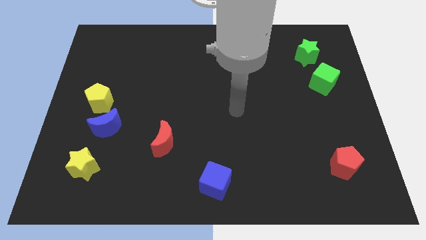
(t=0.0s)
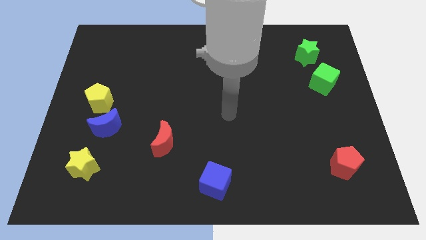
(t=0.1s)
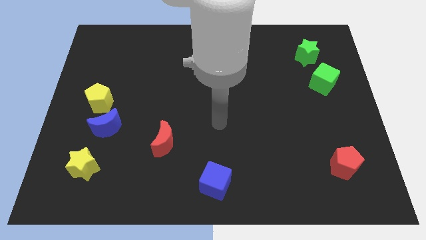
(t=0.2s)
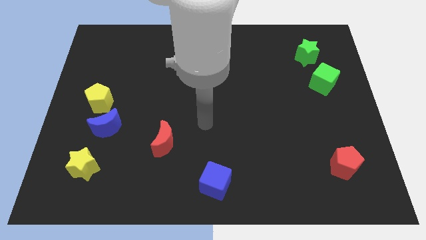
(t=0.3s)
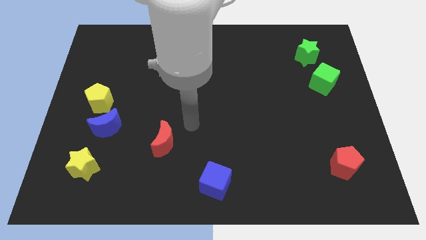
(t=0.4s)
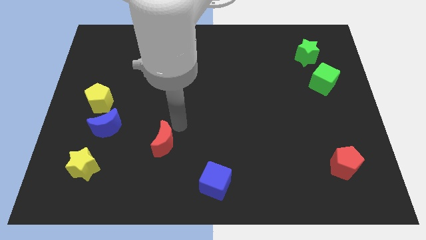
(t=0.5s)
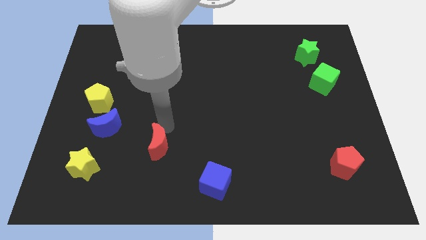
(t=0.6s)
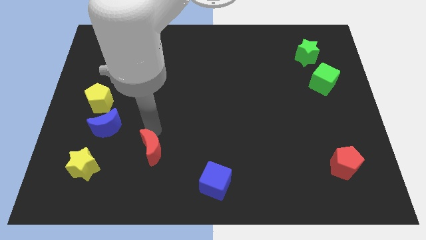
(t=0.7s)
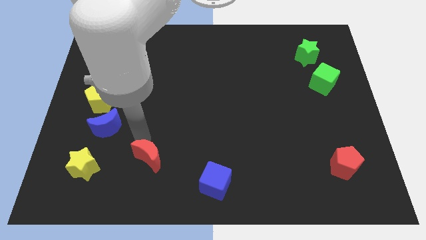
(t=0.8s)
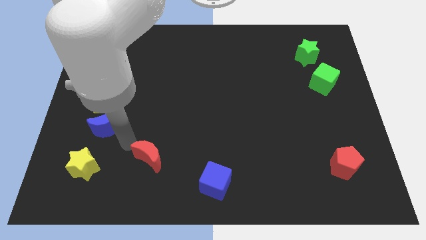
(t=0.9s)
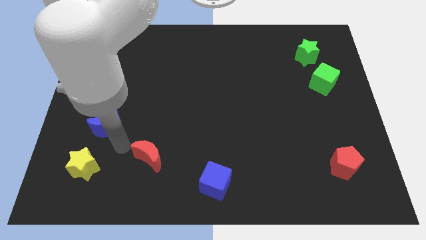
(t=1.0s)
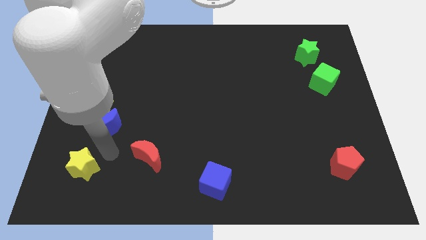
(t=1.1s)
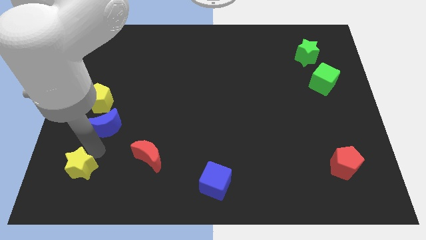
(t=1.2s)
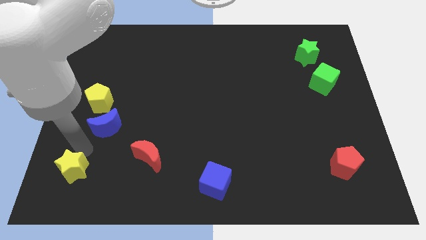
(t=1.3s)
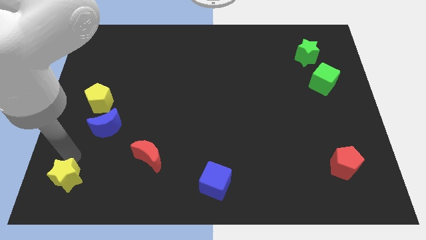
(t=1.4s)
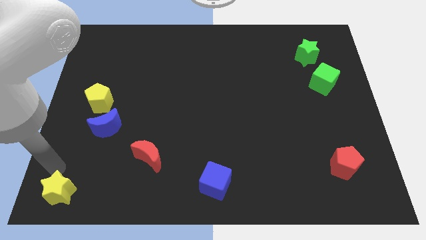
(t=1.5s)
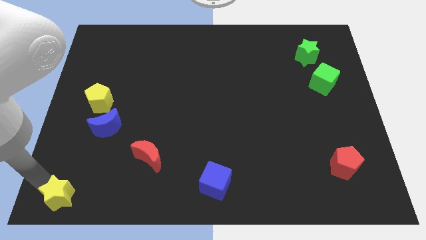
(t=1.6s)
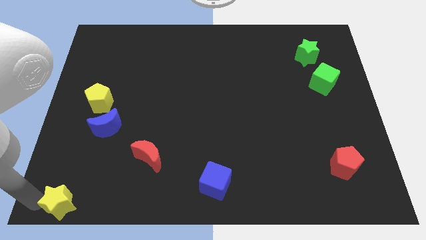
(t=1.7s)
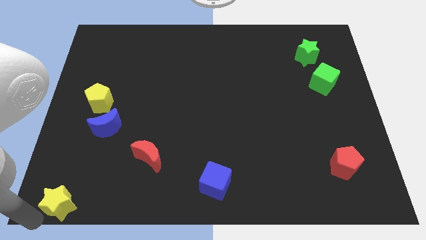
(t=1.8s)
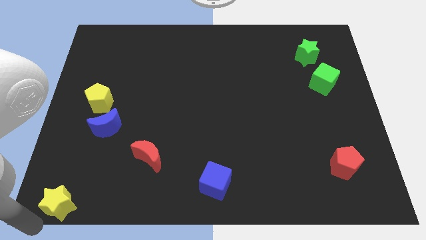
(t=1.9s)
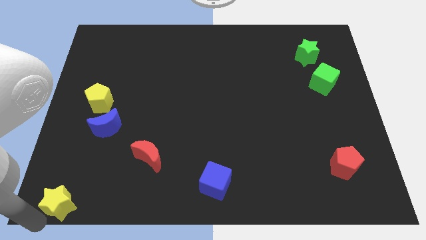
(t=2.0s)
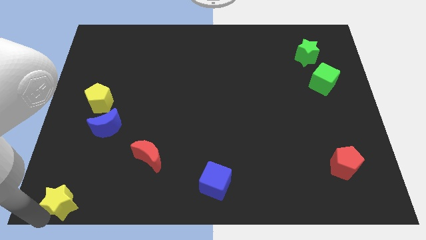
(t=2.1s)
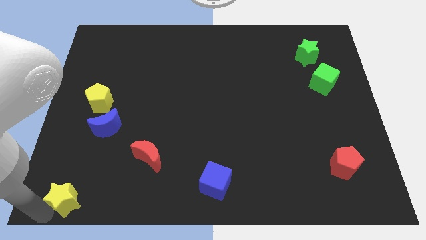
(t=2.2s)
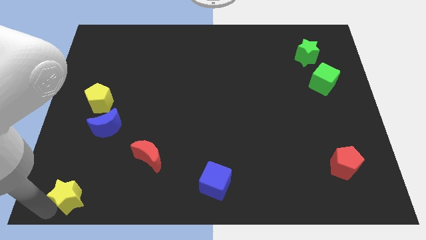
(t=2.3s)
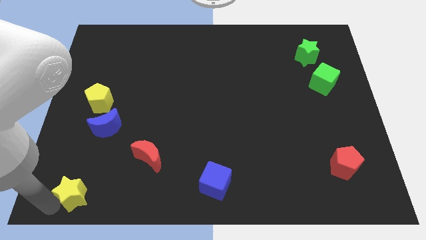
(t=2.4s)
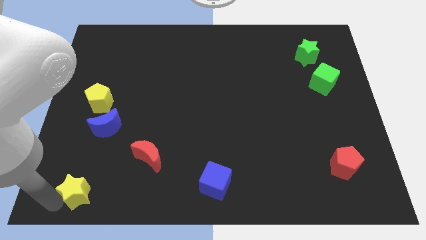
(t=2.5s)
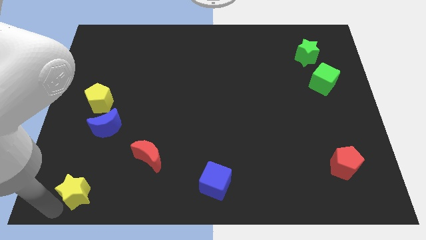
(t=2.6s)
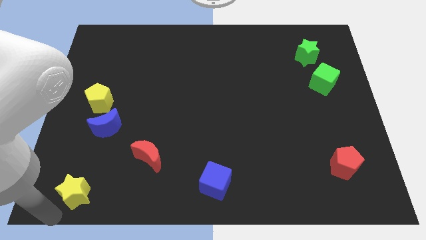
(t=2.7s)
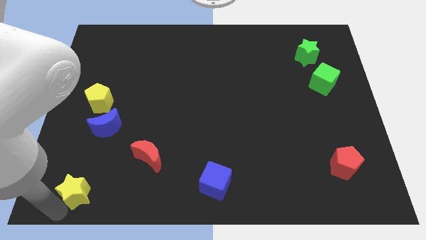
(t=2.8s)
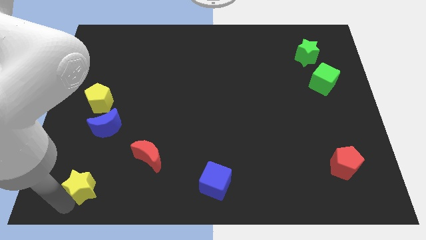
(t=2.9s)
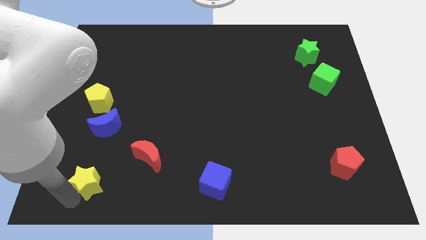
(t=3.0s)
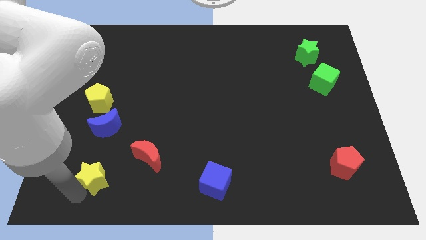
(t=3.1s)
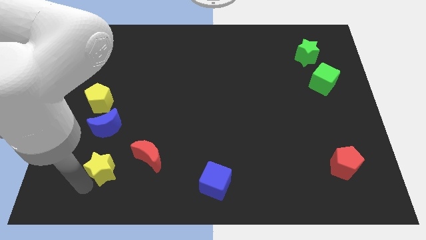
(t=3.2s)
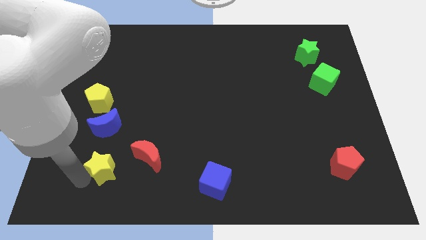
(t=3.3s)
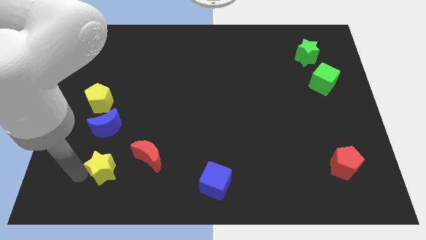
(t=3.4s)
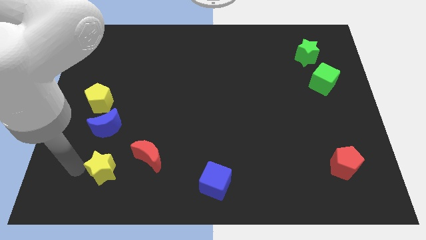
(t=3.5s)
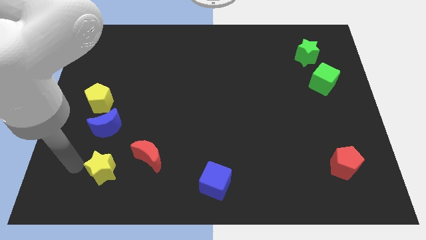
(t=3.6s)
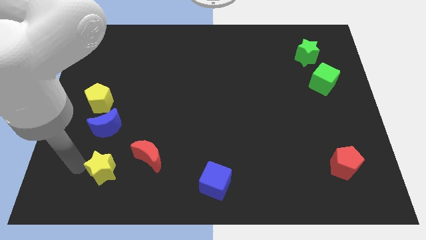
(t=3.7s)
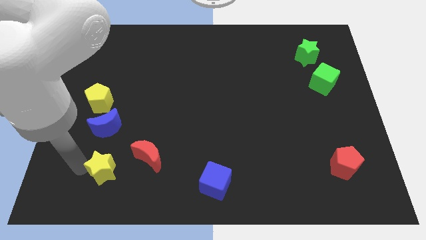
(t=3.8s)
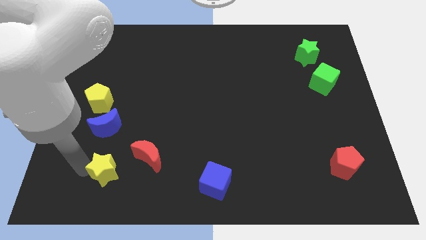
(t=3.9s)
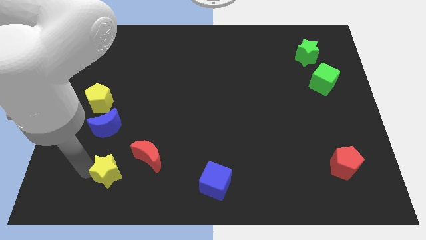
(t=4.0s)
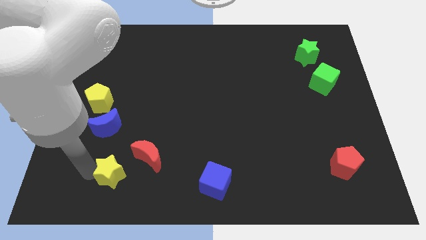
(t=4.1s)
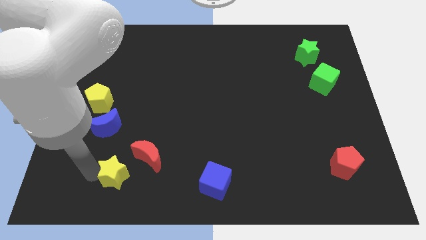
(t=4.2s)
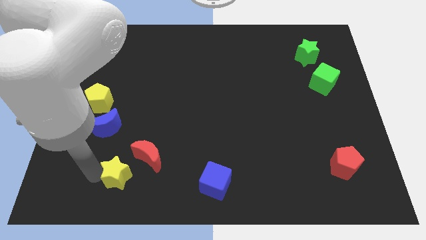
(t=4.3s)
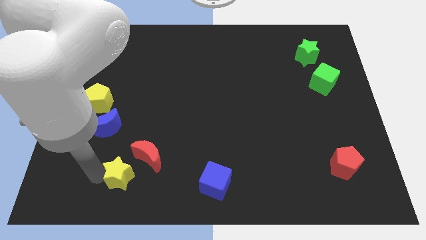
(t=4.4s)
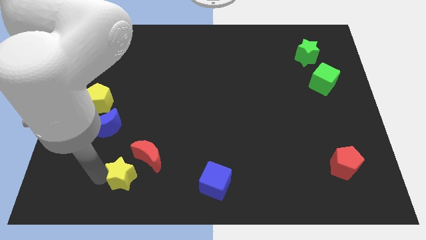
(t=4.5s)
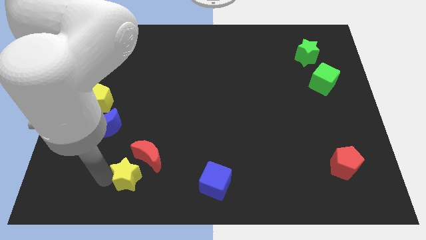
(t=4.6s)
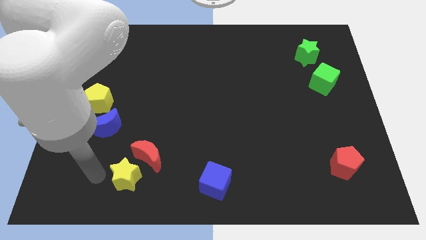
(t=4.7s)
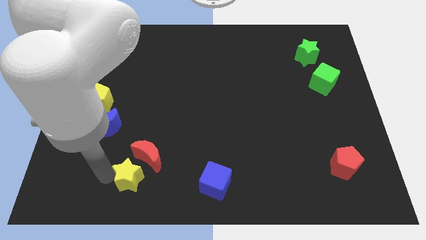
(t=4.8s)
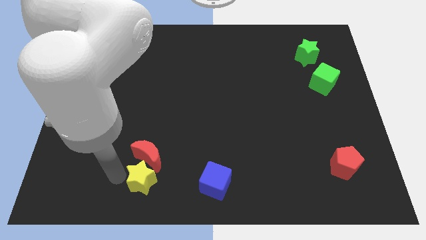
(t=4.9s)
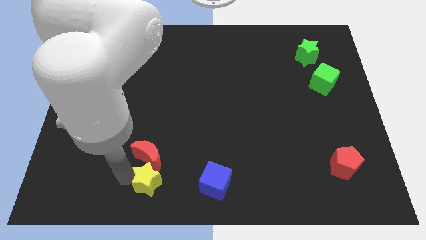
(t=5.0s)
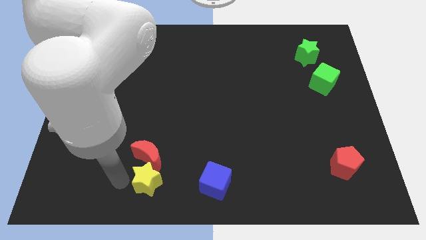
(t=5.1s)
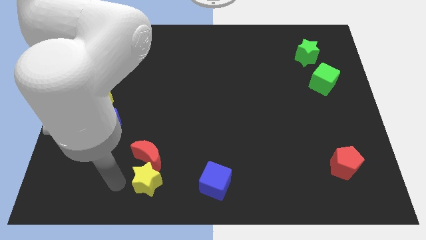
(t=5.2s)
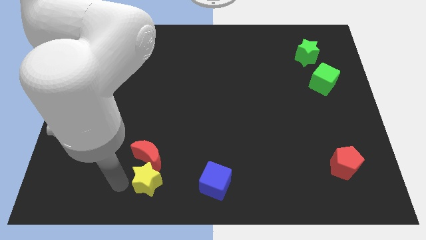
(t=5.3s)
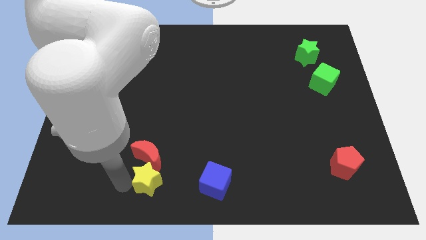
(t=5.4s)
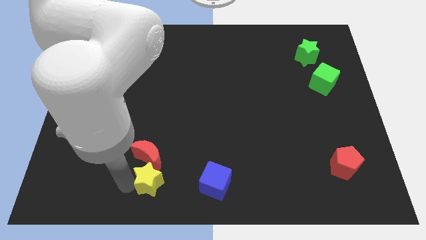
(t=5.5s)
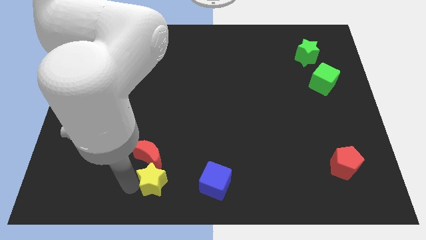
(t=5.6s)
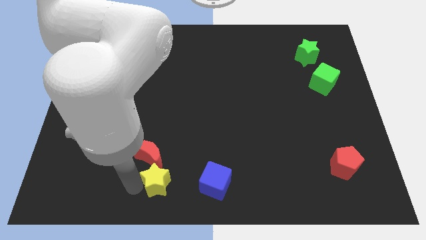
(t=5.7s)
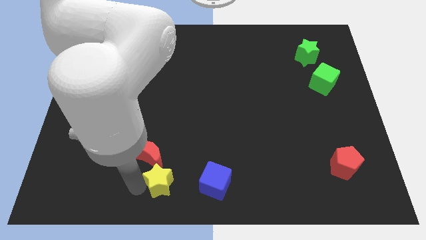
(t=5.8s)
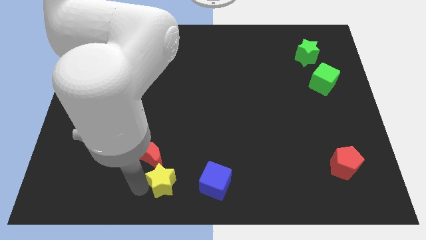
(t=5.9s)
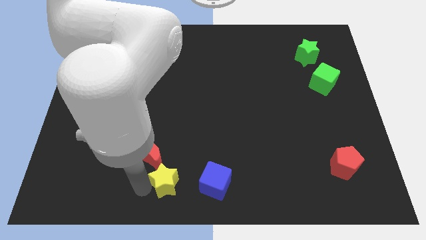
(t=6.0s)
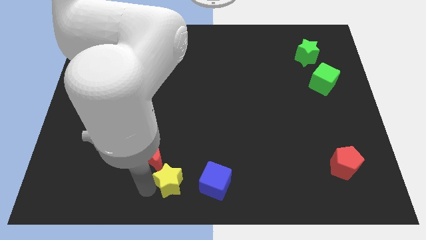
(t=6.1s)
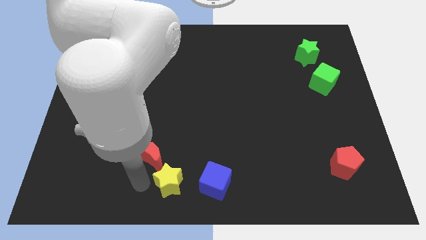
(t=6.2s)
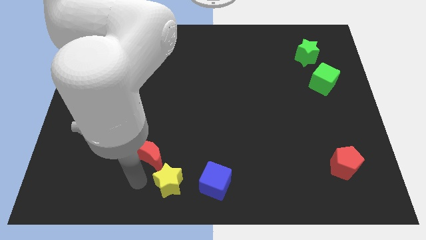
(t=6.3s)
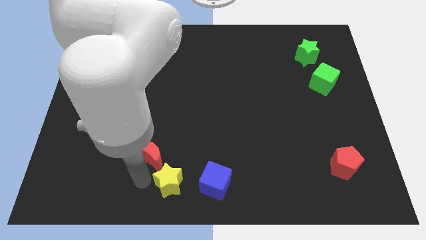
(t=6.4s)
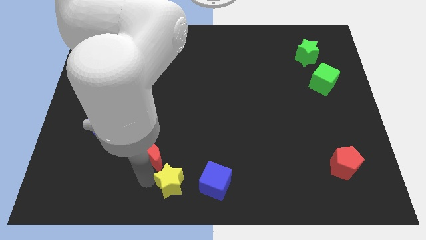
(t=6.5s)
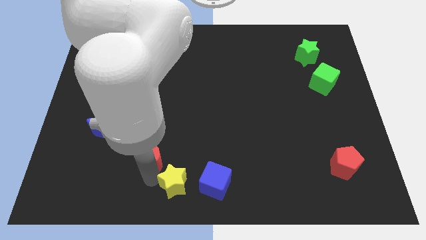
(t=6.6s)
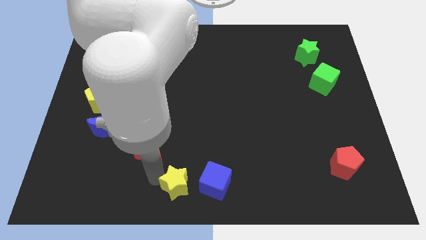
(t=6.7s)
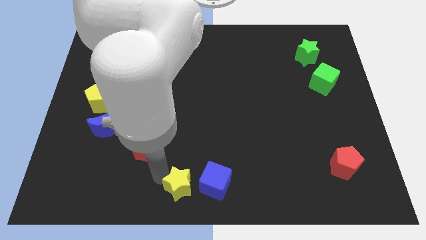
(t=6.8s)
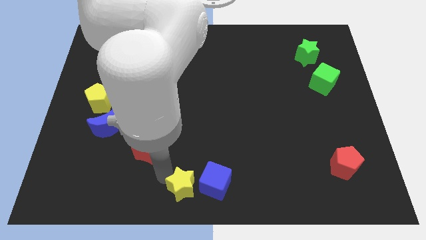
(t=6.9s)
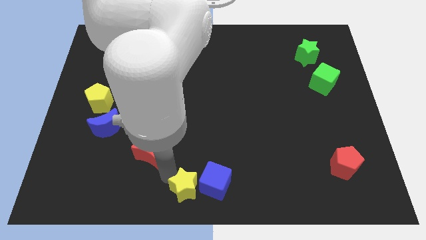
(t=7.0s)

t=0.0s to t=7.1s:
move the yellow star close to the blue cube
